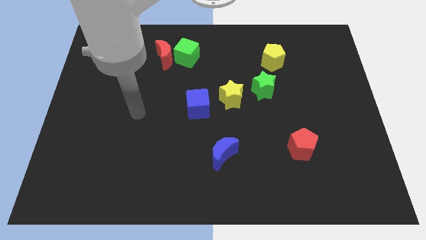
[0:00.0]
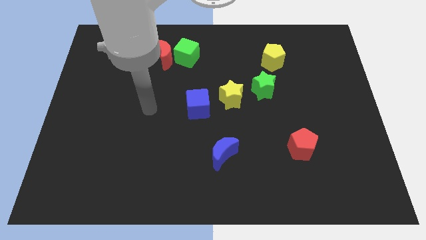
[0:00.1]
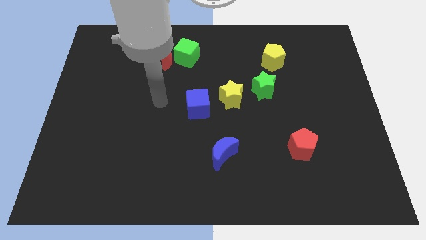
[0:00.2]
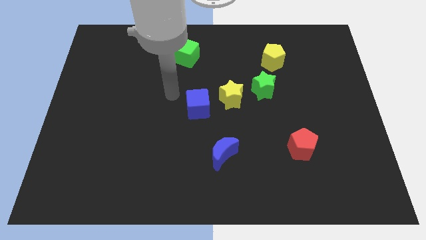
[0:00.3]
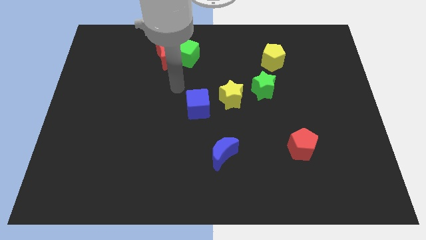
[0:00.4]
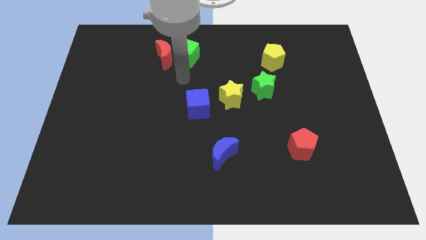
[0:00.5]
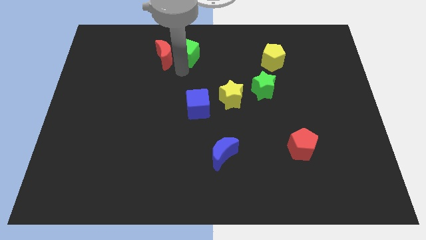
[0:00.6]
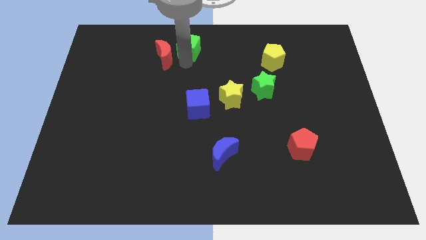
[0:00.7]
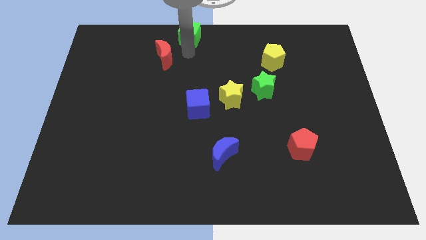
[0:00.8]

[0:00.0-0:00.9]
separate the red moon from the green cube

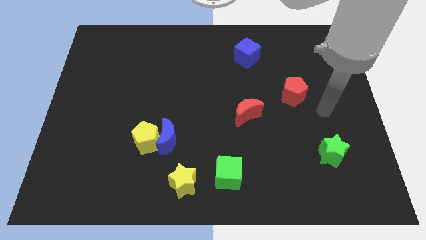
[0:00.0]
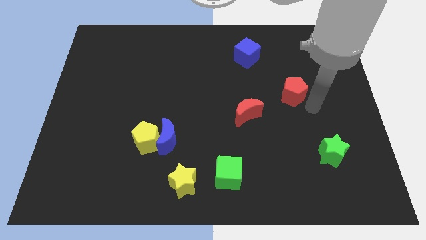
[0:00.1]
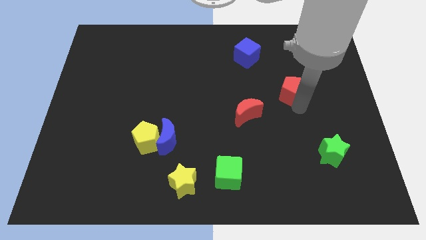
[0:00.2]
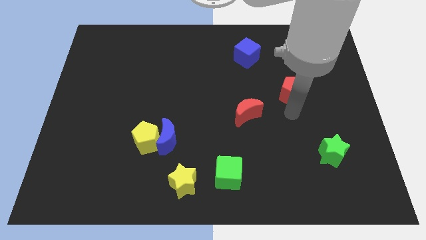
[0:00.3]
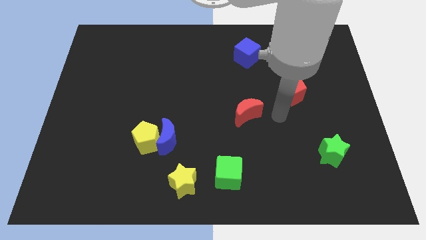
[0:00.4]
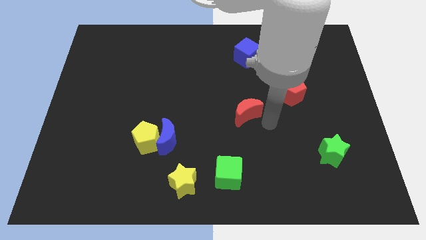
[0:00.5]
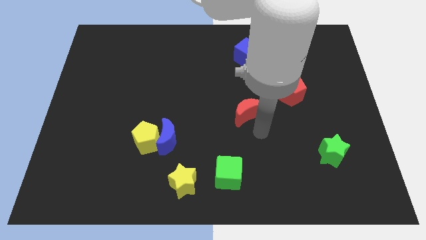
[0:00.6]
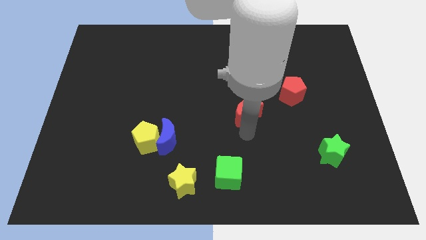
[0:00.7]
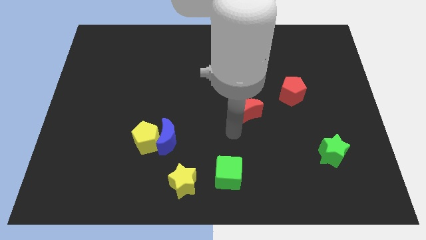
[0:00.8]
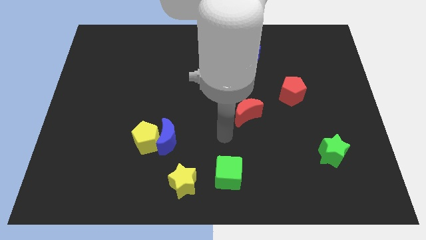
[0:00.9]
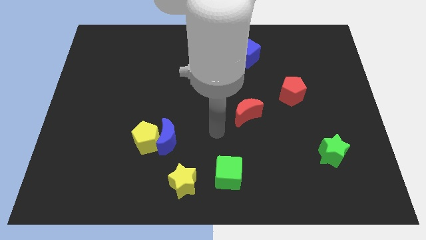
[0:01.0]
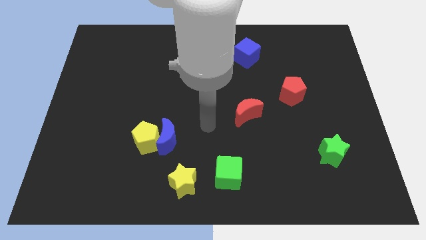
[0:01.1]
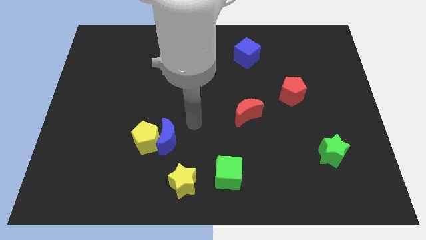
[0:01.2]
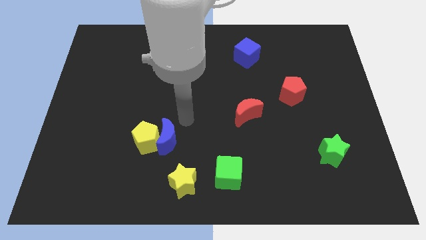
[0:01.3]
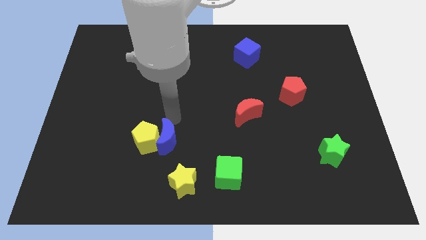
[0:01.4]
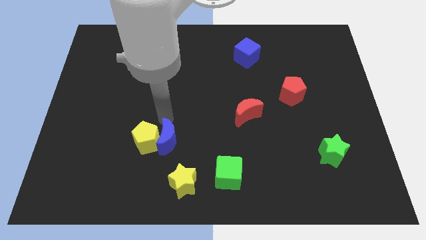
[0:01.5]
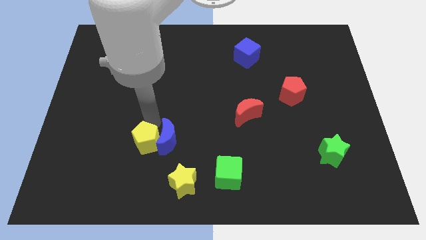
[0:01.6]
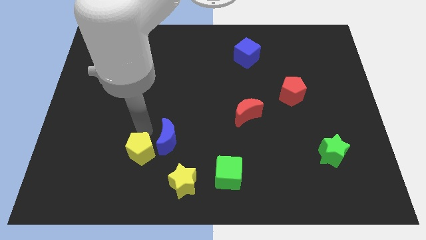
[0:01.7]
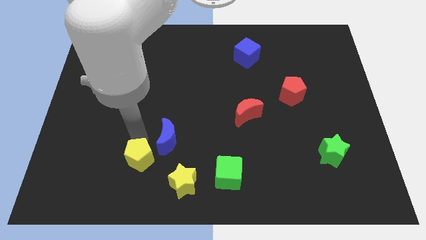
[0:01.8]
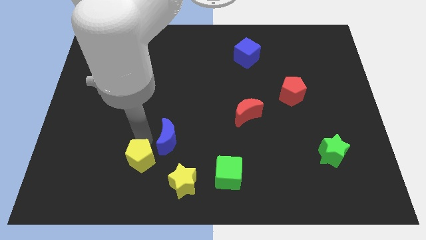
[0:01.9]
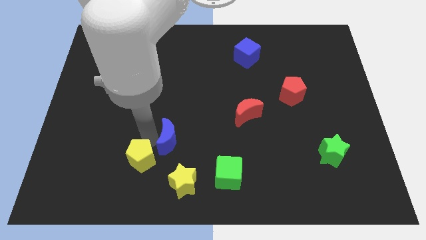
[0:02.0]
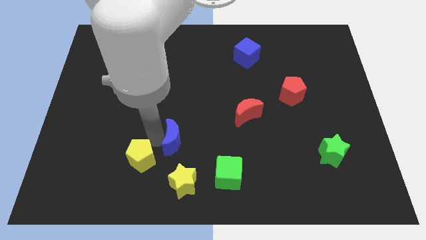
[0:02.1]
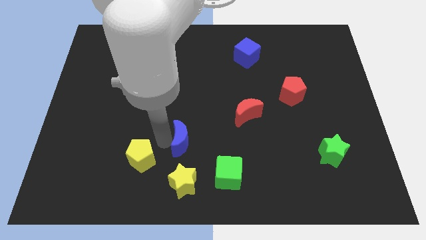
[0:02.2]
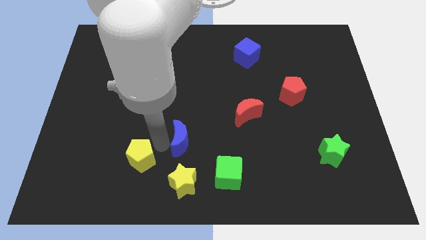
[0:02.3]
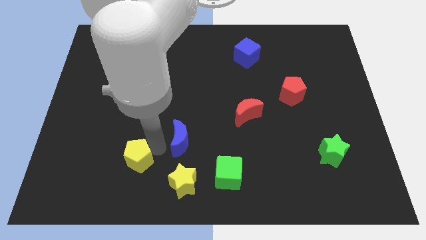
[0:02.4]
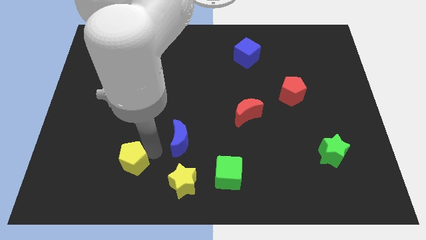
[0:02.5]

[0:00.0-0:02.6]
move the blue moon away from the yellow pentagon

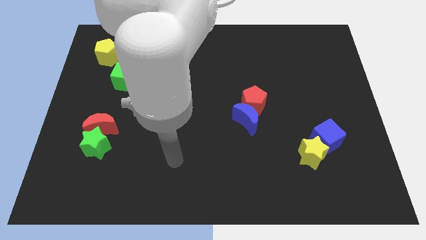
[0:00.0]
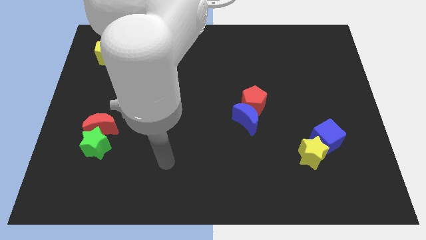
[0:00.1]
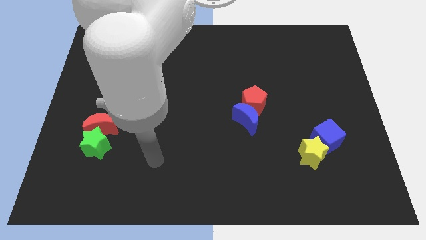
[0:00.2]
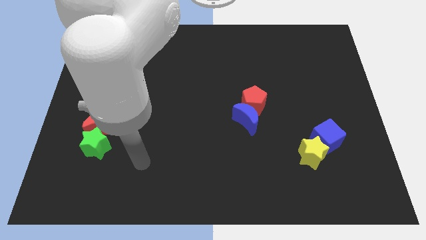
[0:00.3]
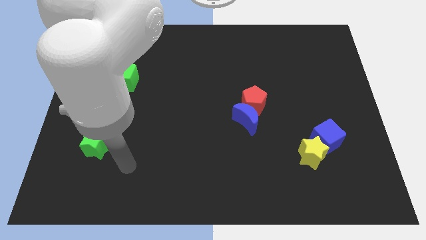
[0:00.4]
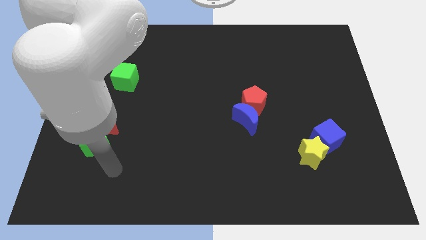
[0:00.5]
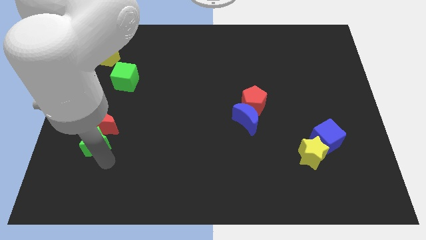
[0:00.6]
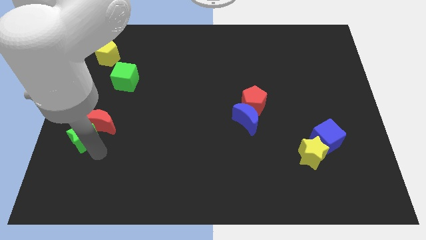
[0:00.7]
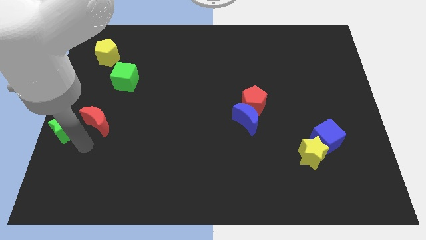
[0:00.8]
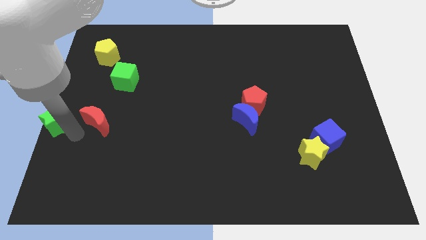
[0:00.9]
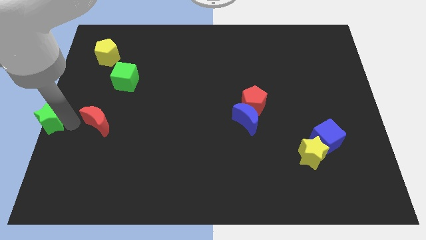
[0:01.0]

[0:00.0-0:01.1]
separate the red moon from the green star

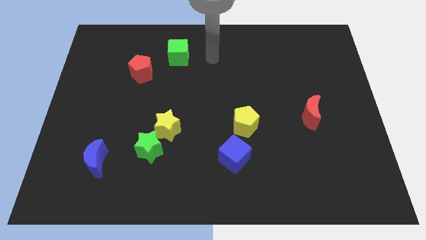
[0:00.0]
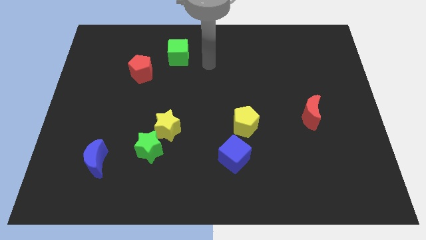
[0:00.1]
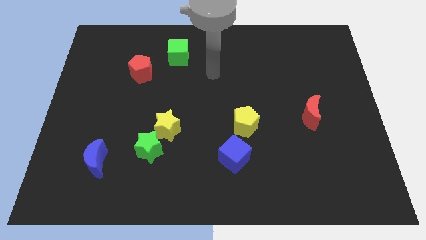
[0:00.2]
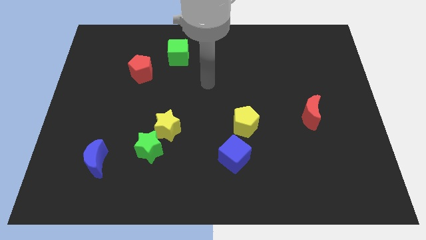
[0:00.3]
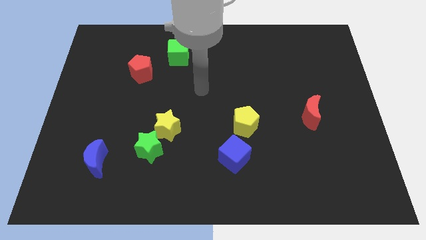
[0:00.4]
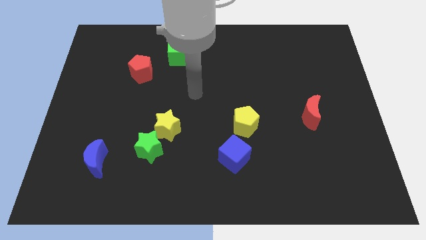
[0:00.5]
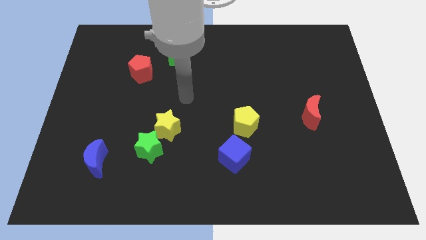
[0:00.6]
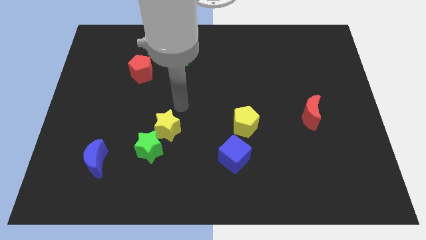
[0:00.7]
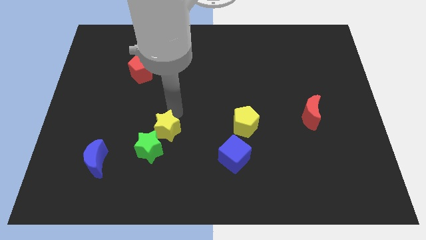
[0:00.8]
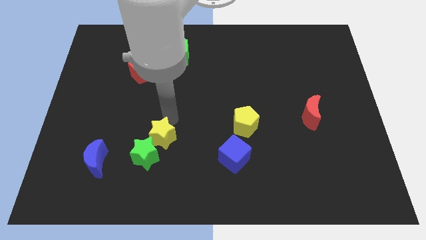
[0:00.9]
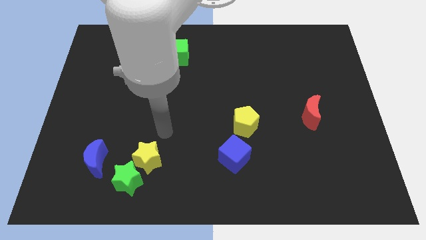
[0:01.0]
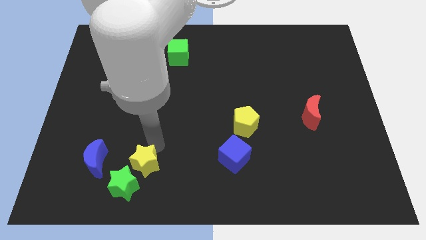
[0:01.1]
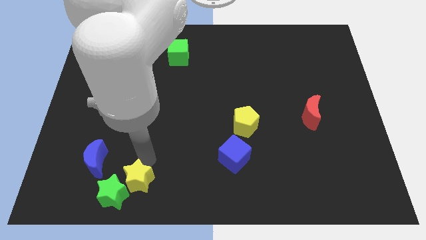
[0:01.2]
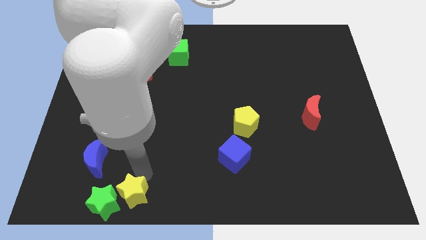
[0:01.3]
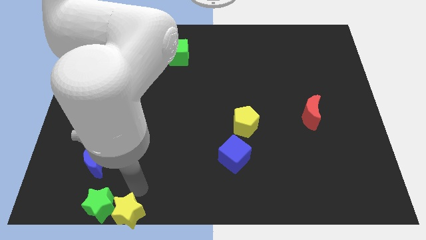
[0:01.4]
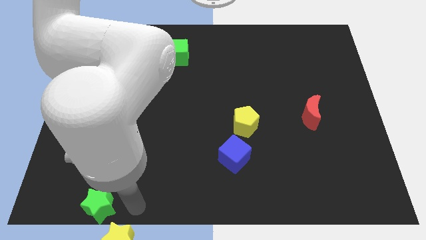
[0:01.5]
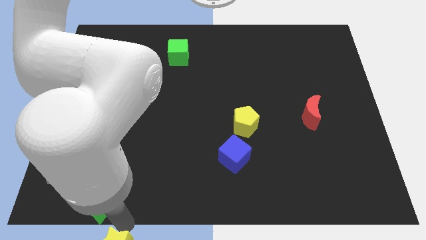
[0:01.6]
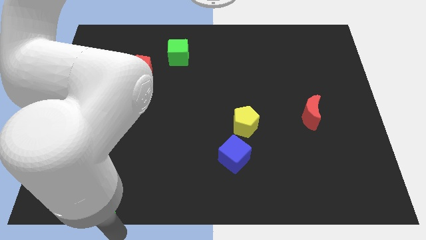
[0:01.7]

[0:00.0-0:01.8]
separate the green star from the yellow star

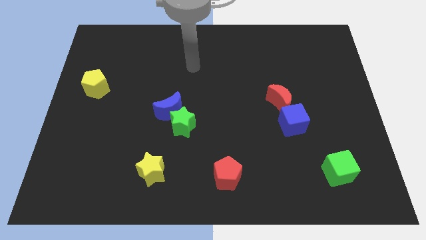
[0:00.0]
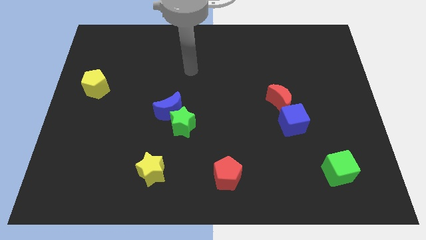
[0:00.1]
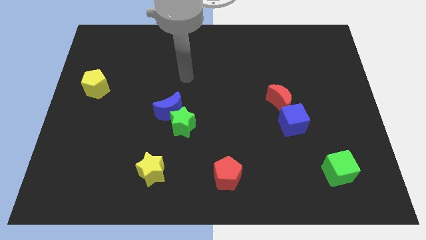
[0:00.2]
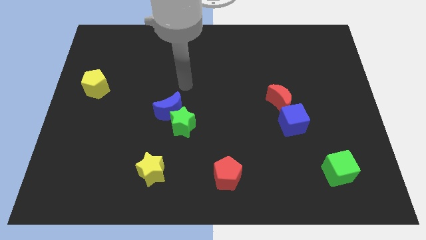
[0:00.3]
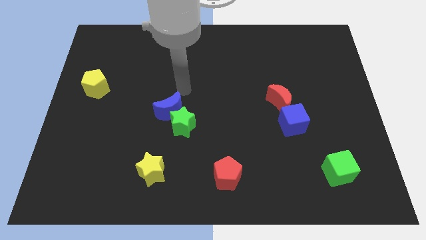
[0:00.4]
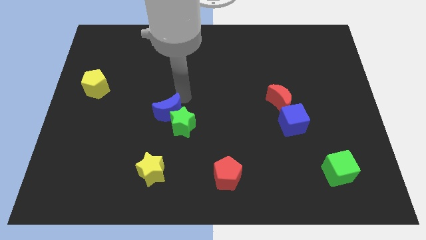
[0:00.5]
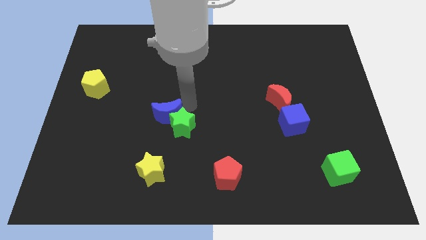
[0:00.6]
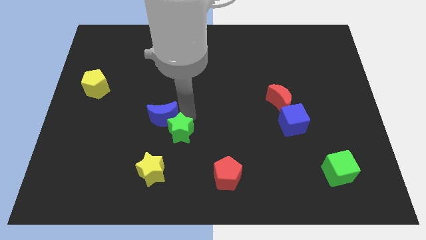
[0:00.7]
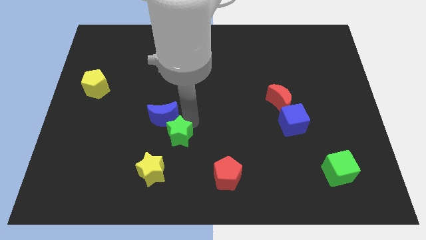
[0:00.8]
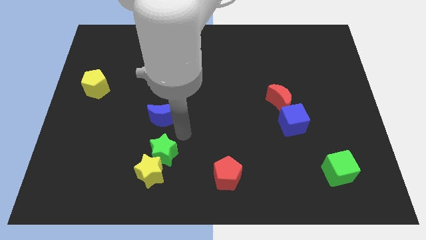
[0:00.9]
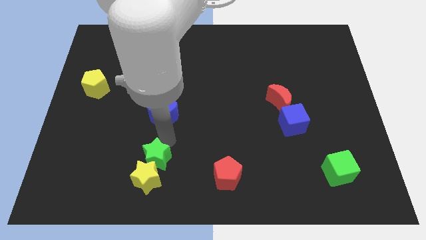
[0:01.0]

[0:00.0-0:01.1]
move the blue moon away from the green star

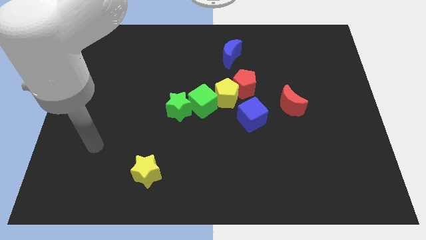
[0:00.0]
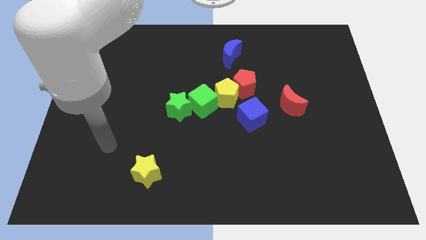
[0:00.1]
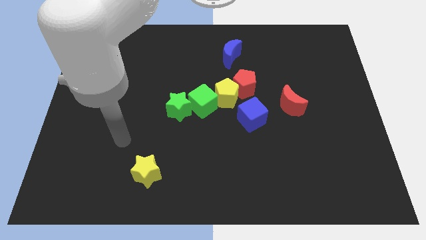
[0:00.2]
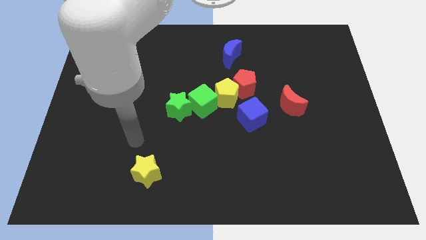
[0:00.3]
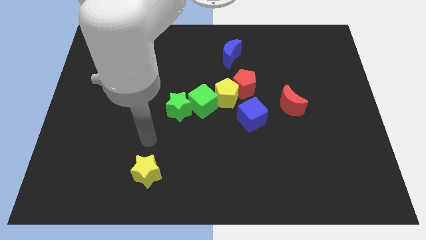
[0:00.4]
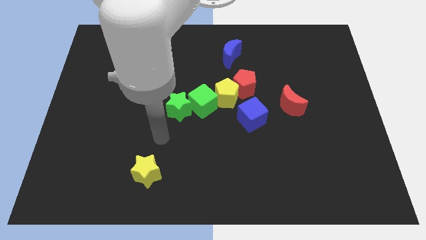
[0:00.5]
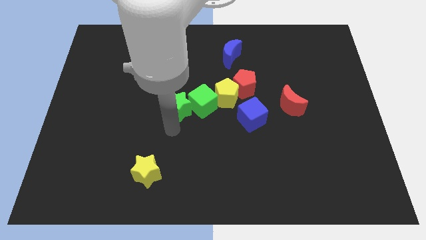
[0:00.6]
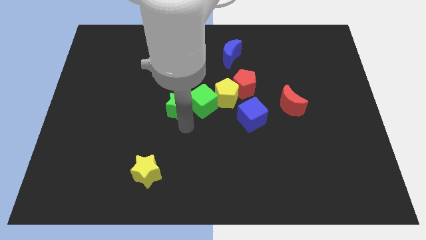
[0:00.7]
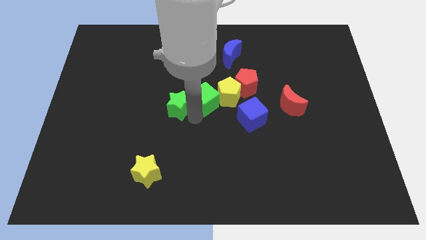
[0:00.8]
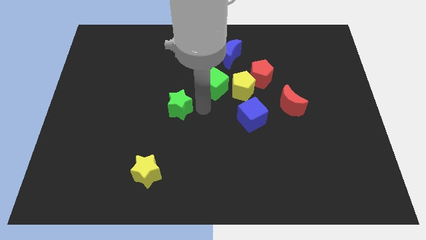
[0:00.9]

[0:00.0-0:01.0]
separate the green star from the green cube

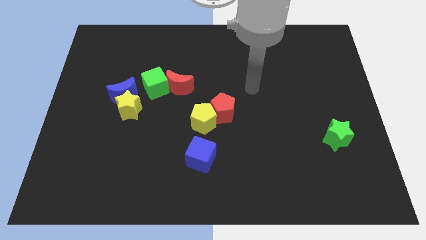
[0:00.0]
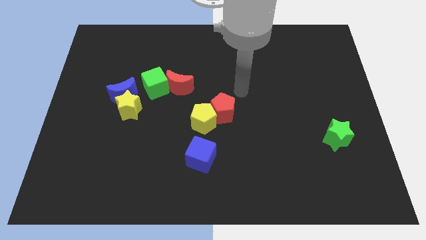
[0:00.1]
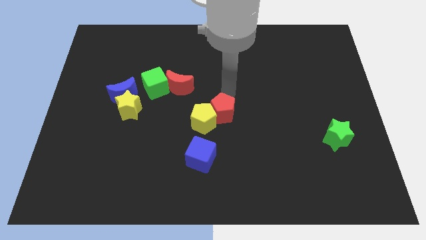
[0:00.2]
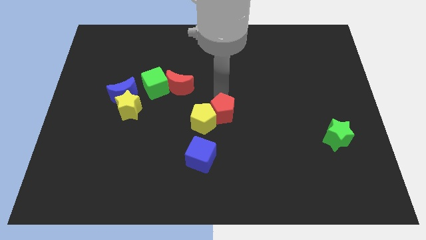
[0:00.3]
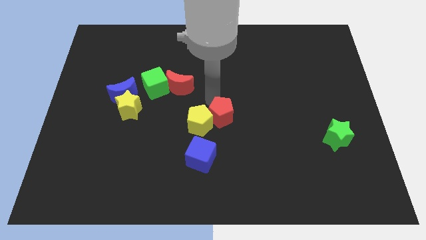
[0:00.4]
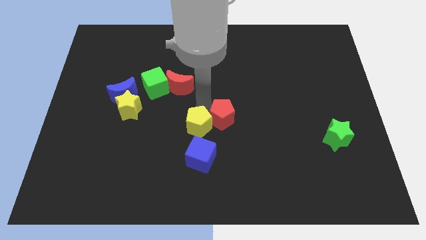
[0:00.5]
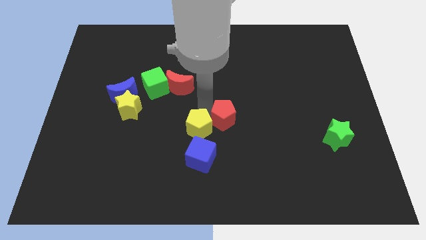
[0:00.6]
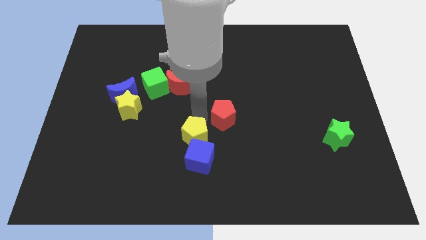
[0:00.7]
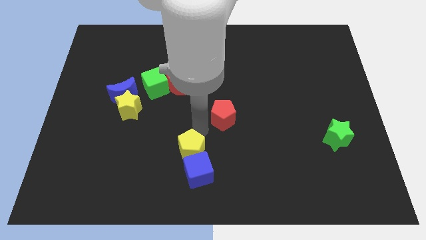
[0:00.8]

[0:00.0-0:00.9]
move the red pentagon away from the yellow pentagon

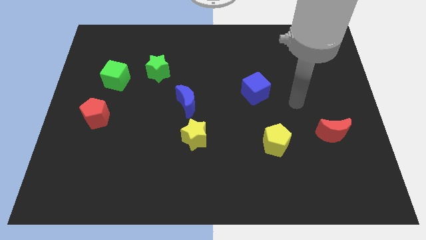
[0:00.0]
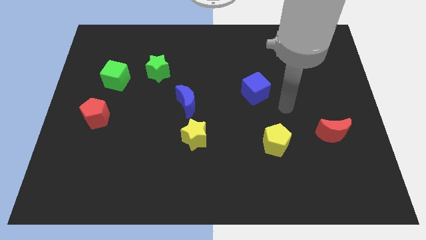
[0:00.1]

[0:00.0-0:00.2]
move the blue moon away from the yellow star
